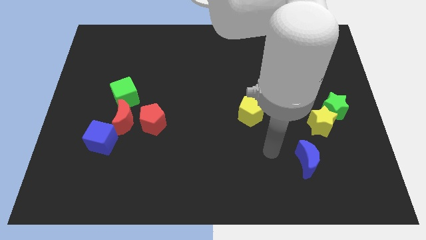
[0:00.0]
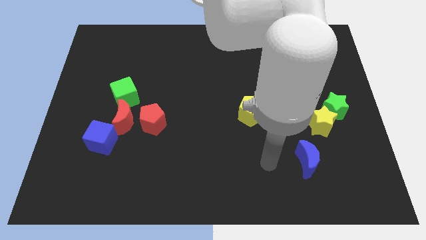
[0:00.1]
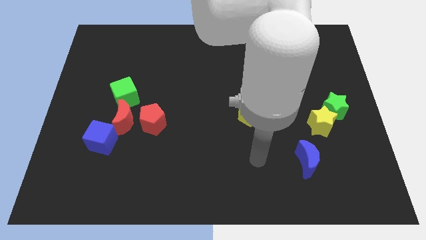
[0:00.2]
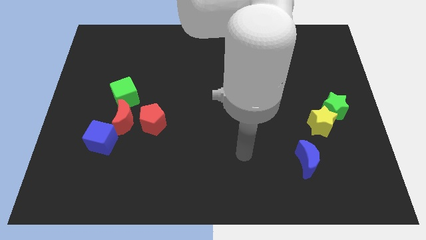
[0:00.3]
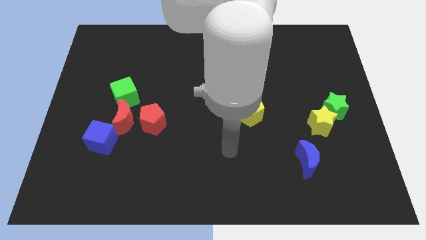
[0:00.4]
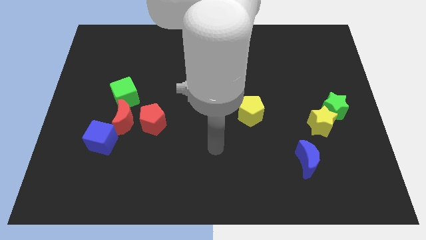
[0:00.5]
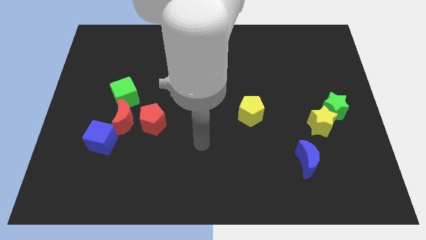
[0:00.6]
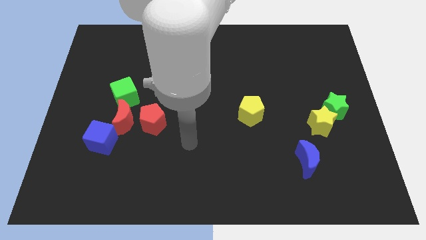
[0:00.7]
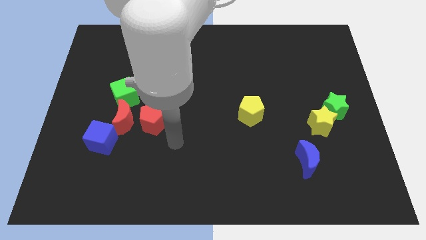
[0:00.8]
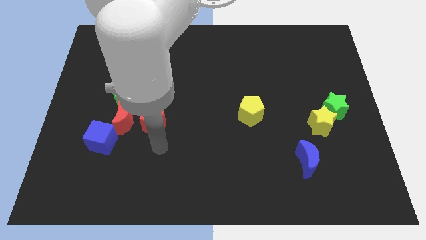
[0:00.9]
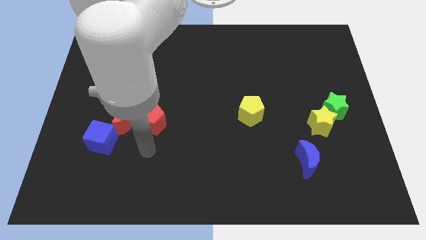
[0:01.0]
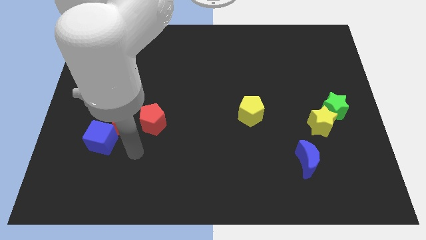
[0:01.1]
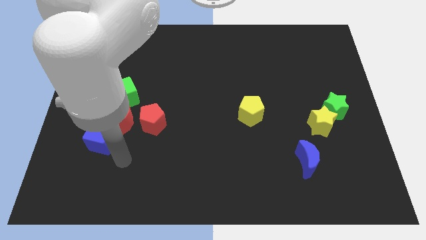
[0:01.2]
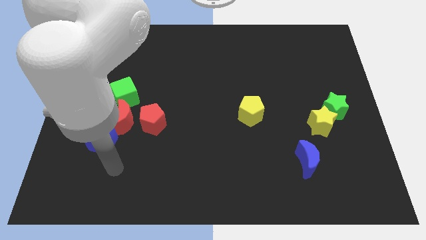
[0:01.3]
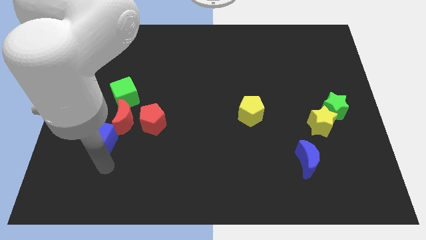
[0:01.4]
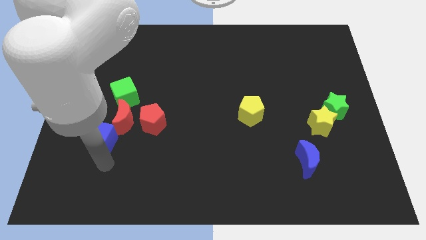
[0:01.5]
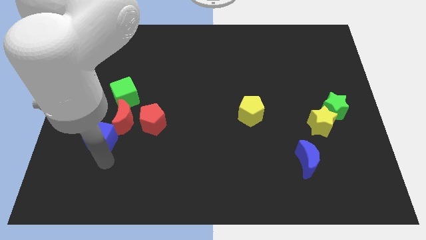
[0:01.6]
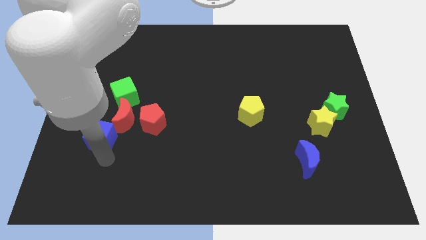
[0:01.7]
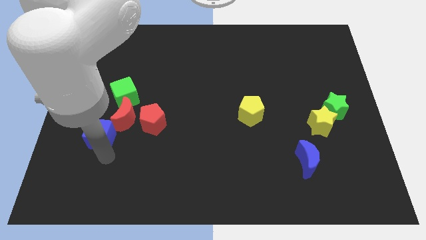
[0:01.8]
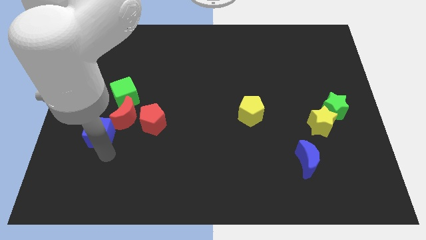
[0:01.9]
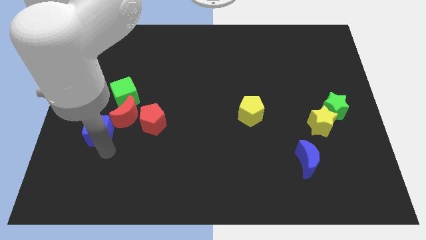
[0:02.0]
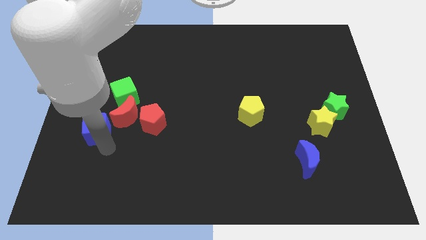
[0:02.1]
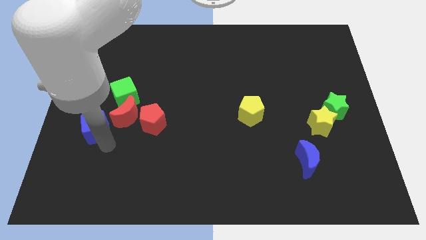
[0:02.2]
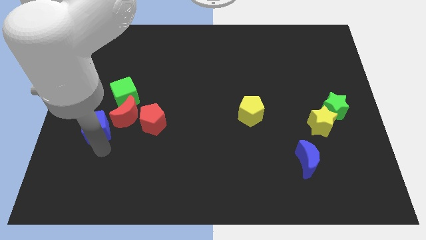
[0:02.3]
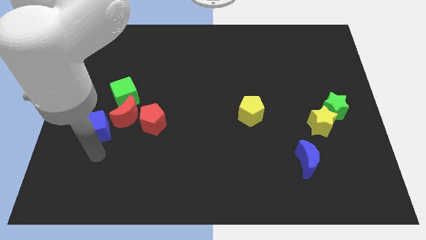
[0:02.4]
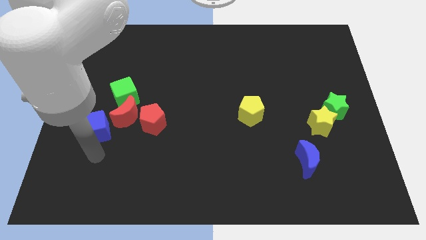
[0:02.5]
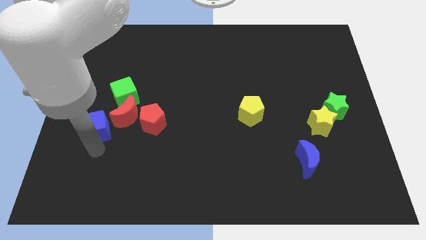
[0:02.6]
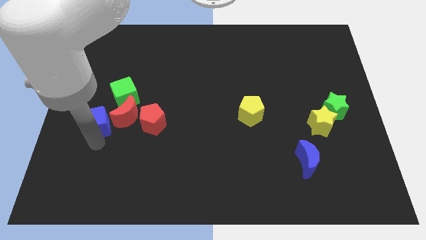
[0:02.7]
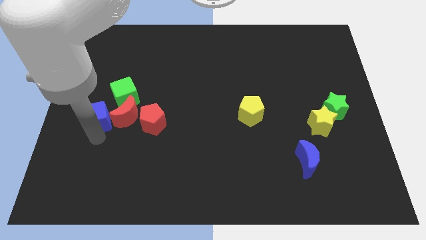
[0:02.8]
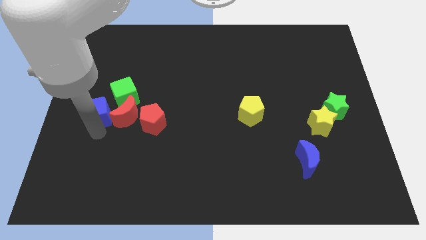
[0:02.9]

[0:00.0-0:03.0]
slightly slide the blue cube up

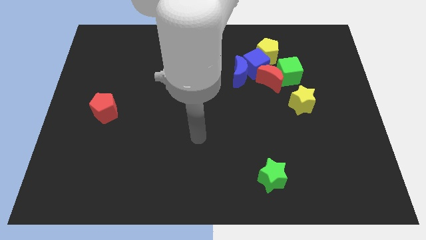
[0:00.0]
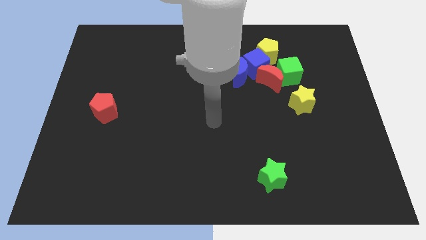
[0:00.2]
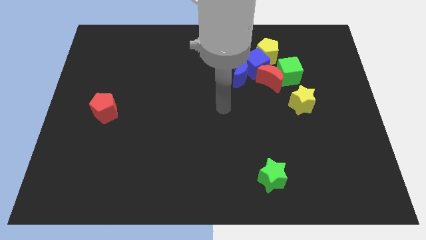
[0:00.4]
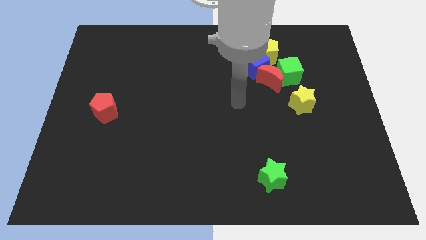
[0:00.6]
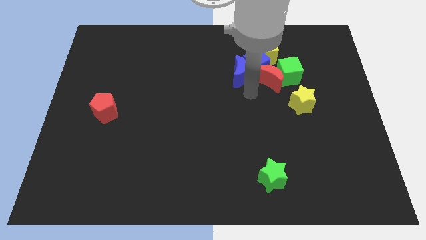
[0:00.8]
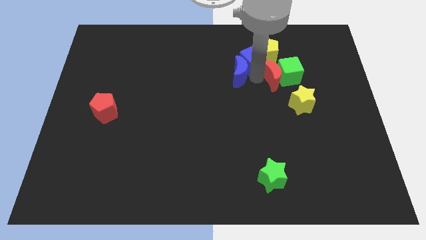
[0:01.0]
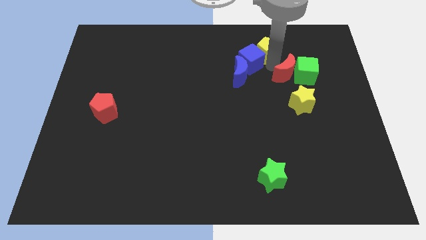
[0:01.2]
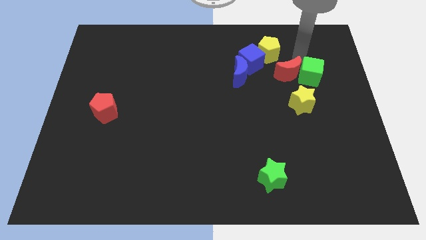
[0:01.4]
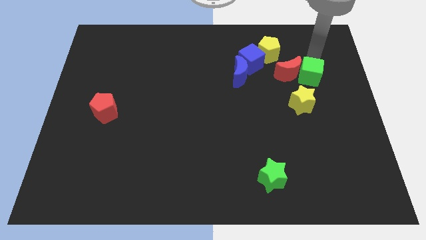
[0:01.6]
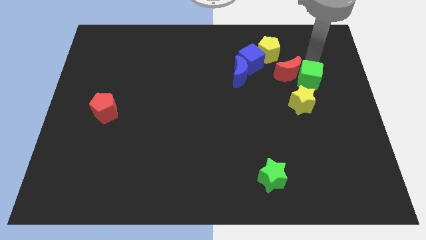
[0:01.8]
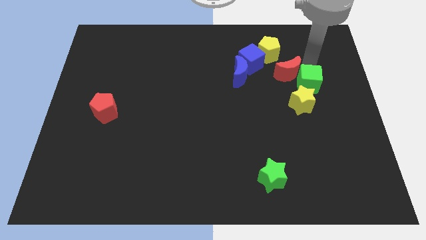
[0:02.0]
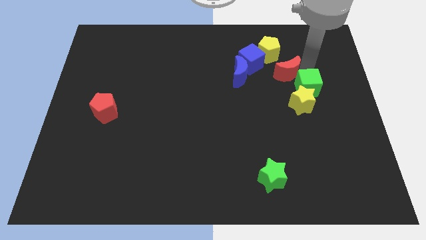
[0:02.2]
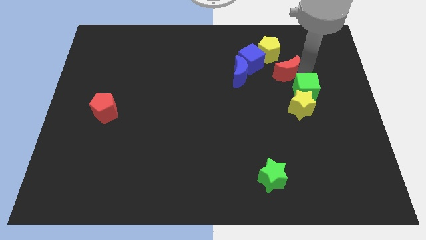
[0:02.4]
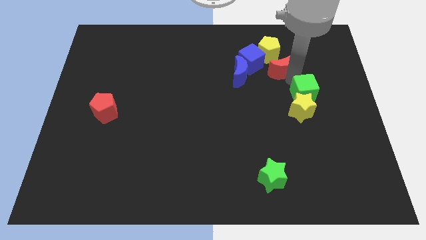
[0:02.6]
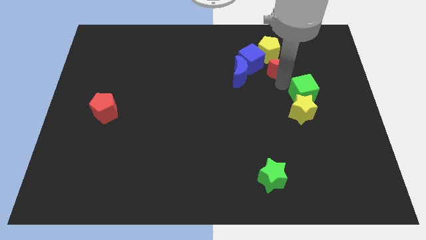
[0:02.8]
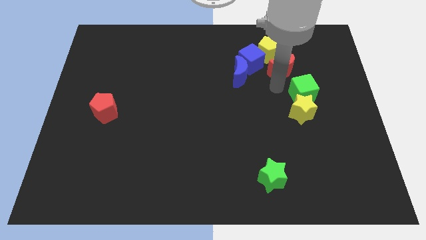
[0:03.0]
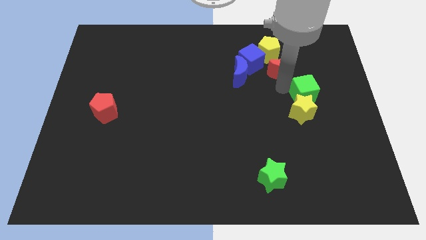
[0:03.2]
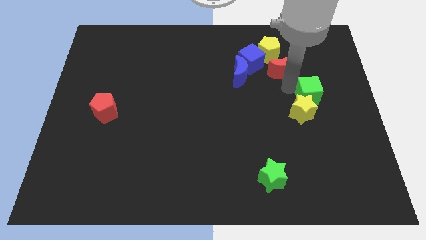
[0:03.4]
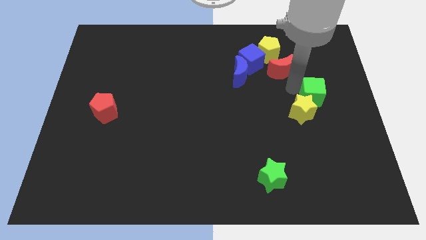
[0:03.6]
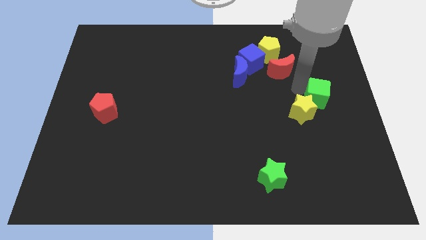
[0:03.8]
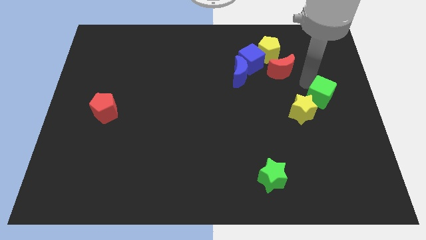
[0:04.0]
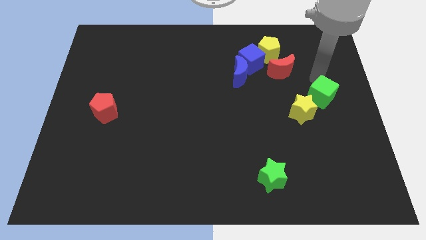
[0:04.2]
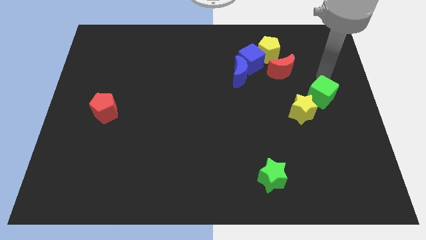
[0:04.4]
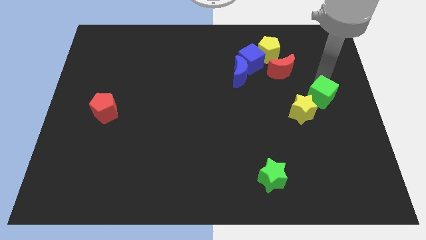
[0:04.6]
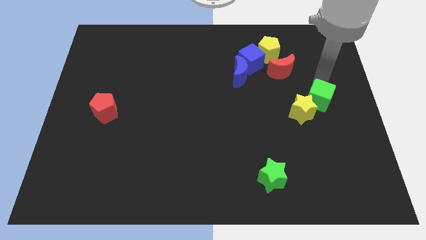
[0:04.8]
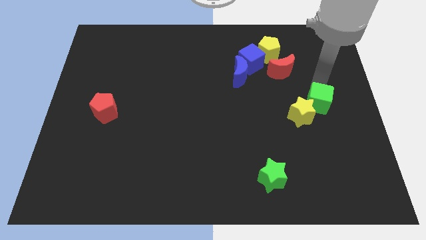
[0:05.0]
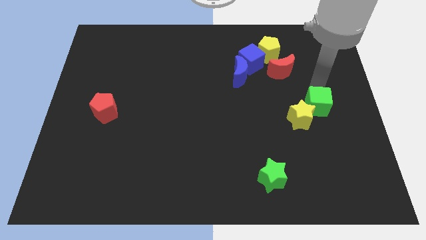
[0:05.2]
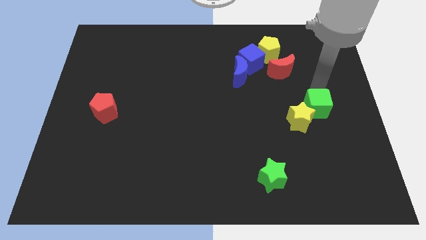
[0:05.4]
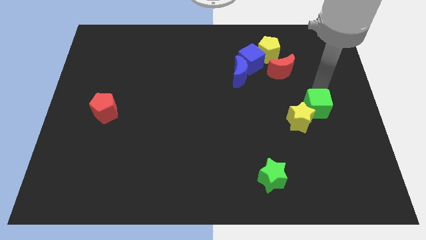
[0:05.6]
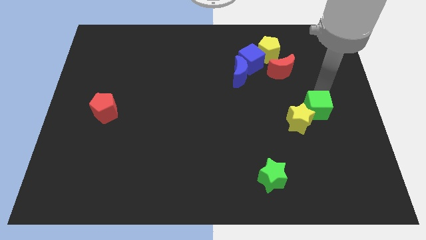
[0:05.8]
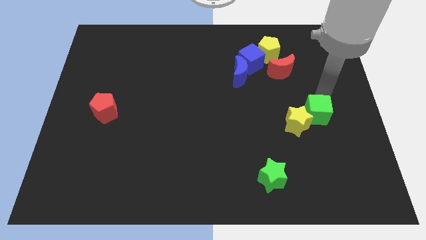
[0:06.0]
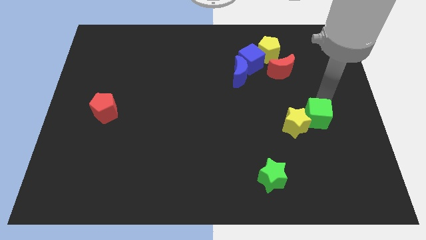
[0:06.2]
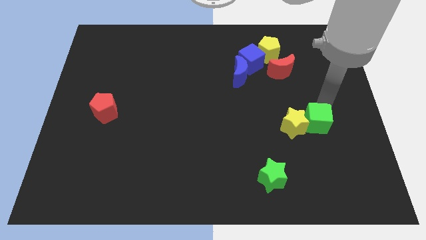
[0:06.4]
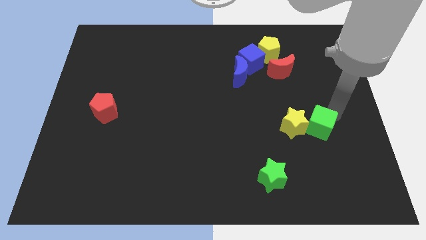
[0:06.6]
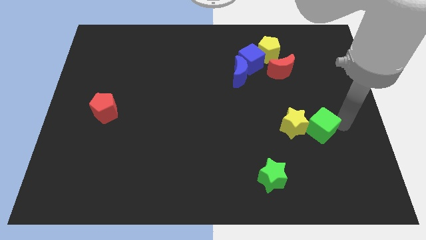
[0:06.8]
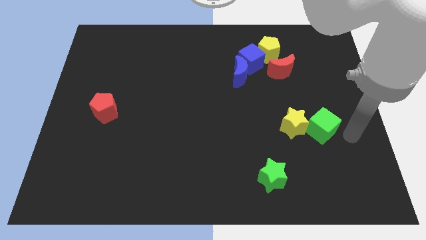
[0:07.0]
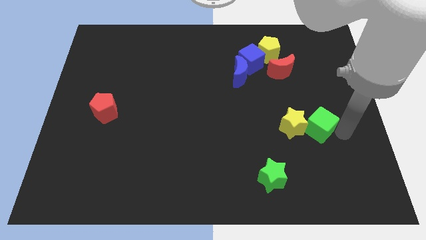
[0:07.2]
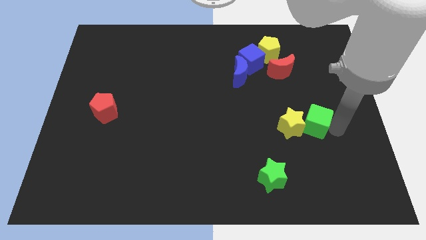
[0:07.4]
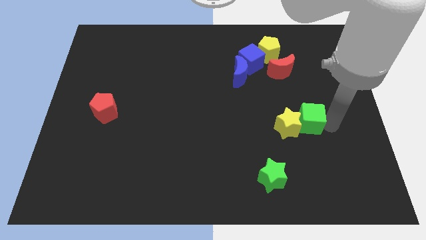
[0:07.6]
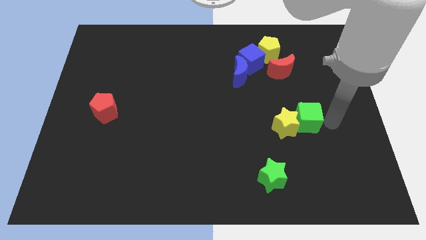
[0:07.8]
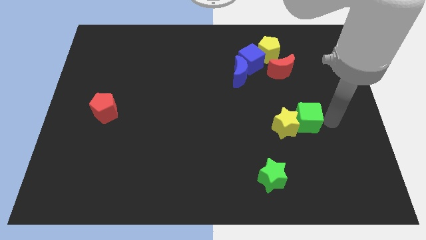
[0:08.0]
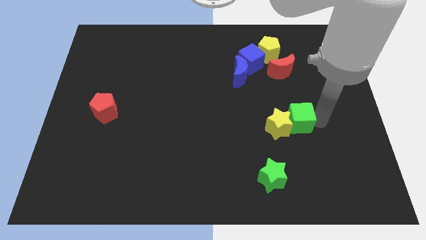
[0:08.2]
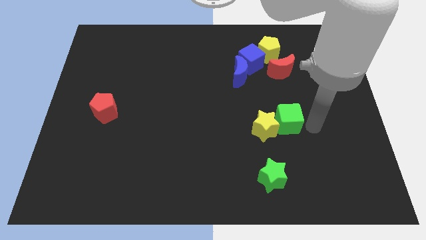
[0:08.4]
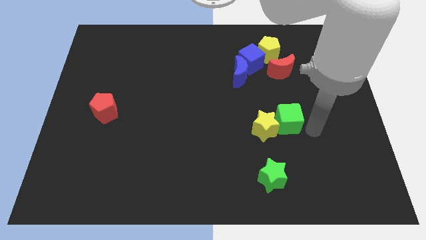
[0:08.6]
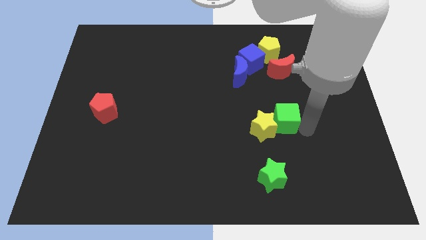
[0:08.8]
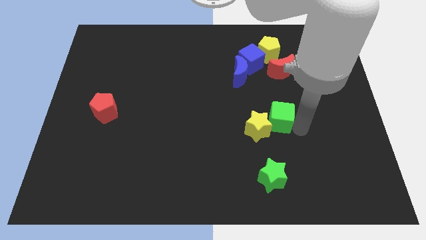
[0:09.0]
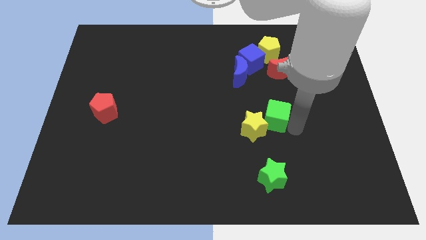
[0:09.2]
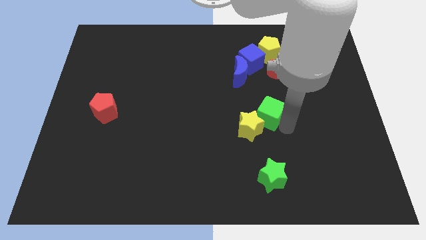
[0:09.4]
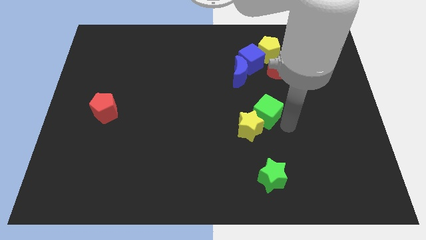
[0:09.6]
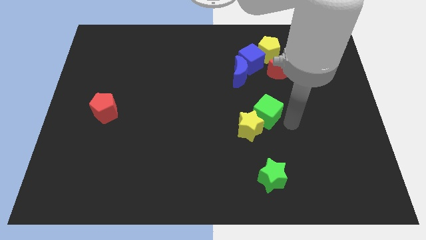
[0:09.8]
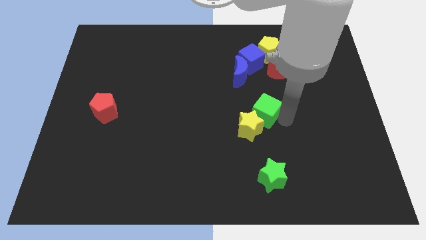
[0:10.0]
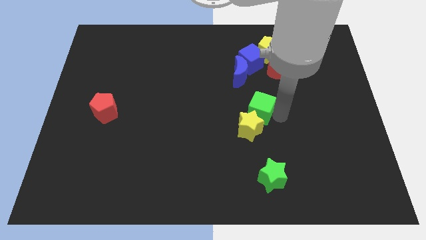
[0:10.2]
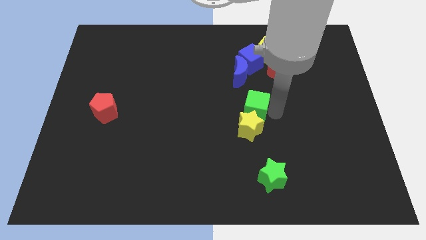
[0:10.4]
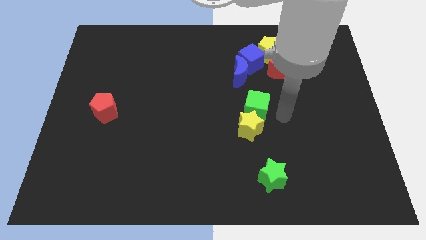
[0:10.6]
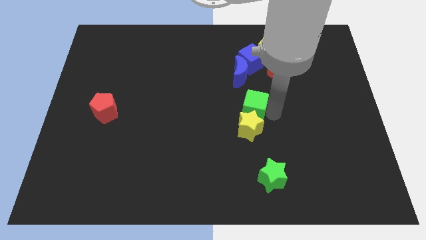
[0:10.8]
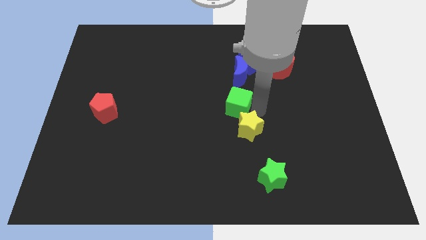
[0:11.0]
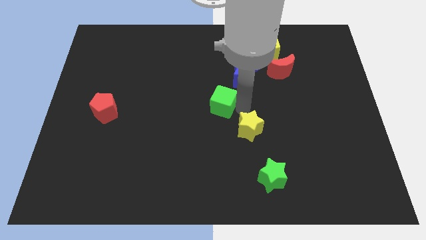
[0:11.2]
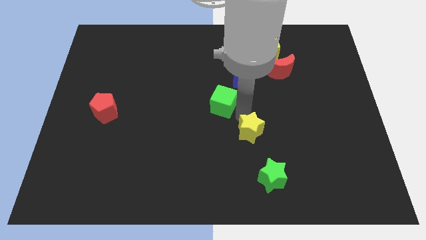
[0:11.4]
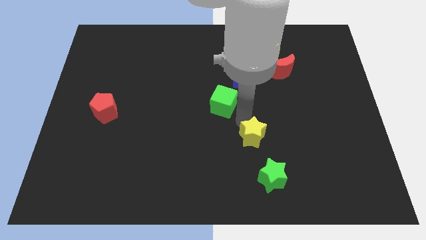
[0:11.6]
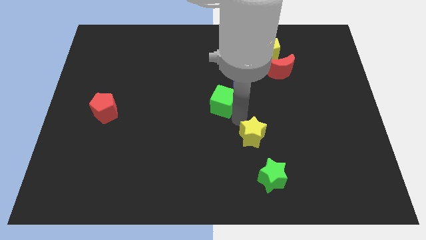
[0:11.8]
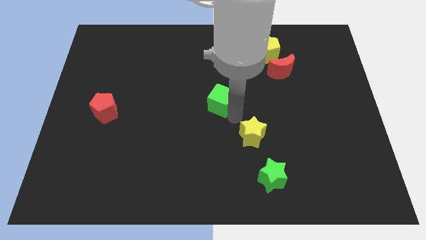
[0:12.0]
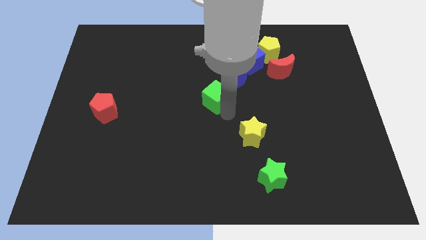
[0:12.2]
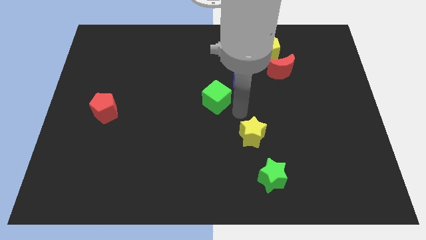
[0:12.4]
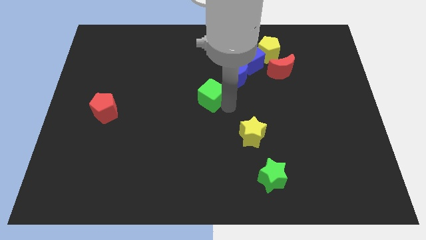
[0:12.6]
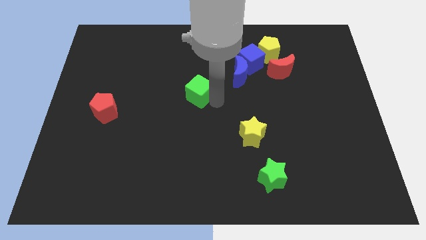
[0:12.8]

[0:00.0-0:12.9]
slide the green cube to the left
